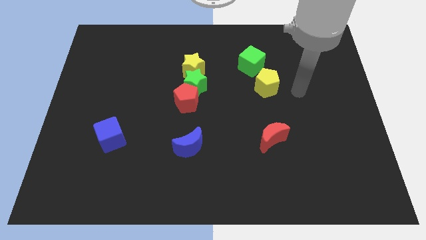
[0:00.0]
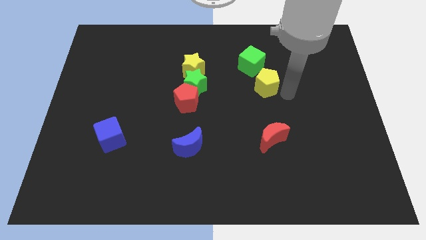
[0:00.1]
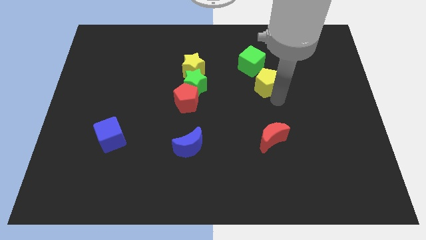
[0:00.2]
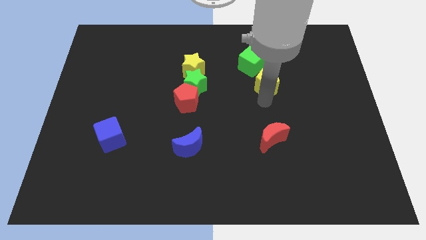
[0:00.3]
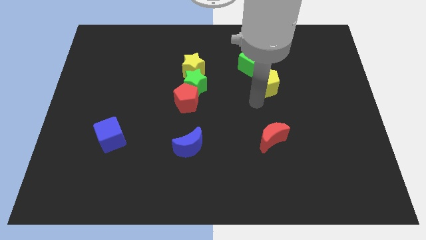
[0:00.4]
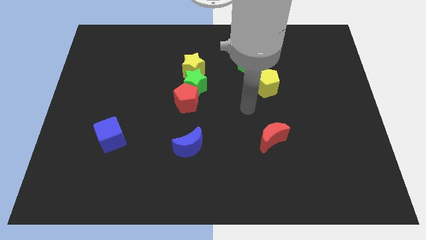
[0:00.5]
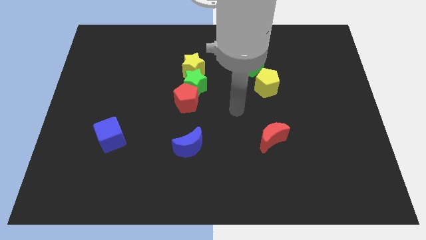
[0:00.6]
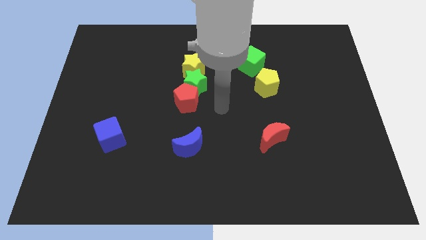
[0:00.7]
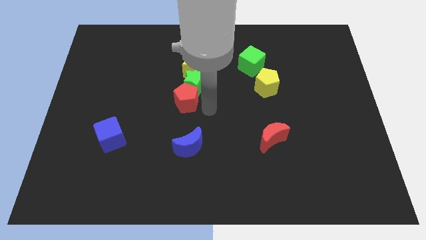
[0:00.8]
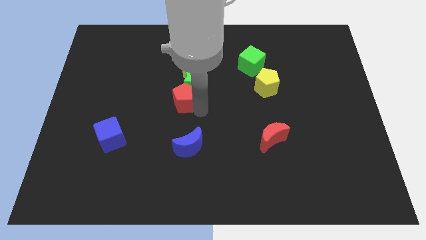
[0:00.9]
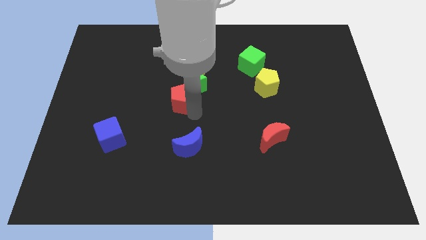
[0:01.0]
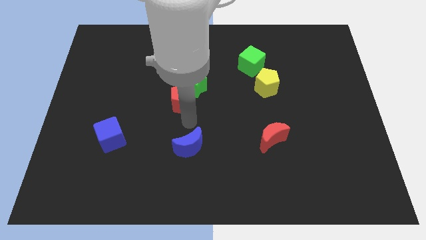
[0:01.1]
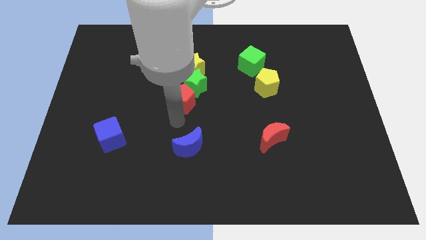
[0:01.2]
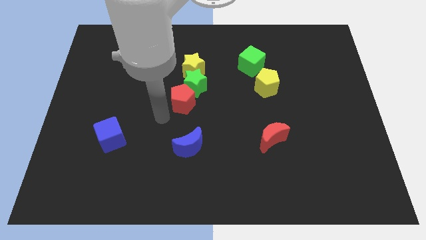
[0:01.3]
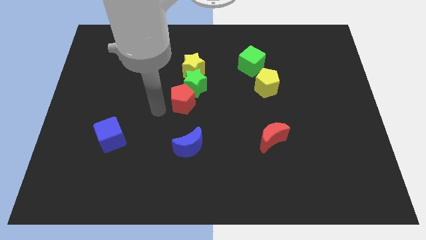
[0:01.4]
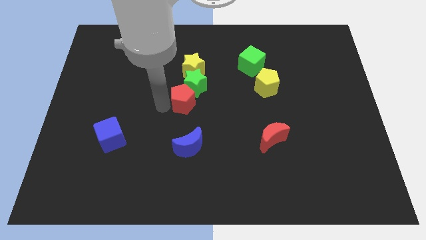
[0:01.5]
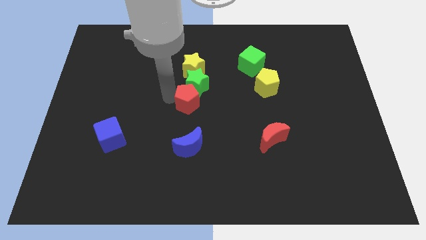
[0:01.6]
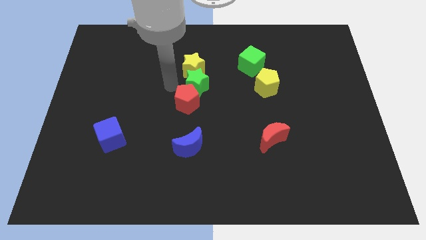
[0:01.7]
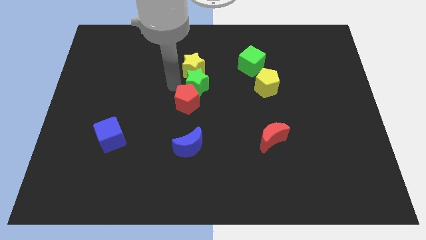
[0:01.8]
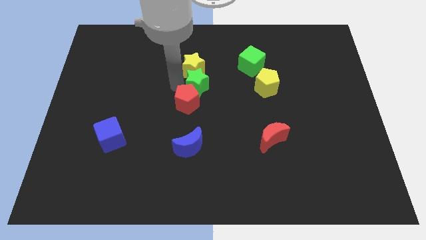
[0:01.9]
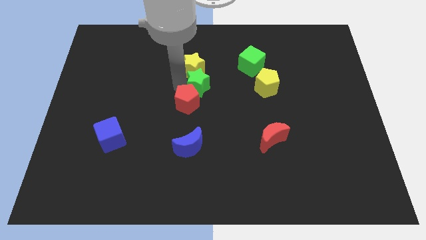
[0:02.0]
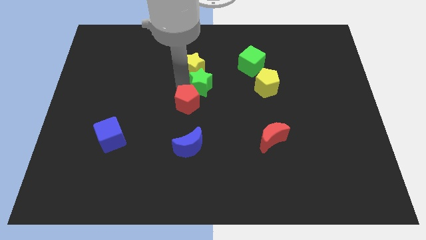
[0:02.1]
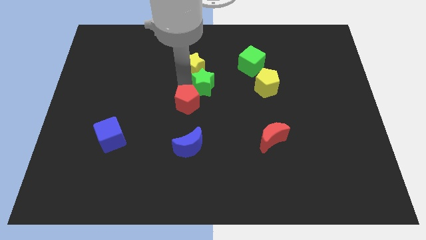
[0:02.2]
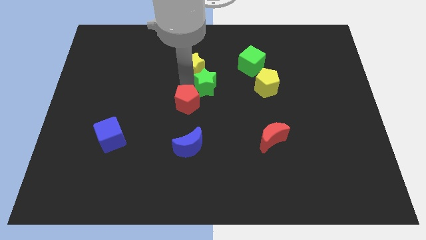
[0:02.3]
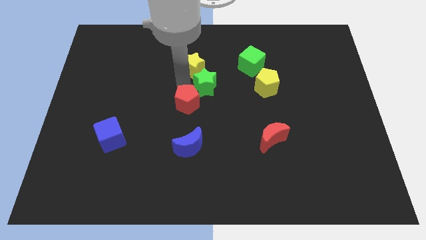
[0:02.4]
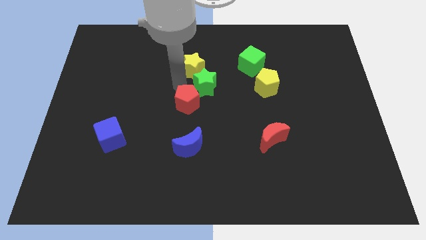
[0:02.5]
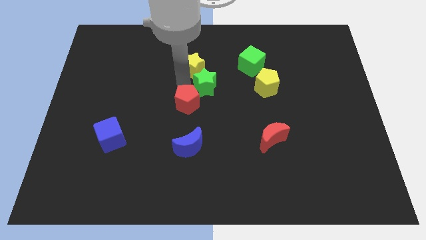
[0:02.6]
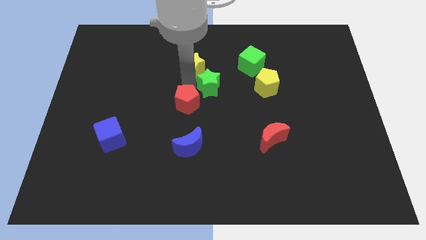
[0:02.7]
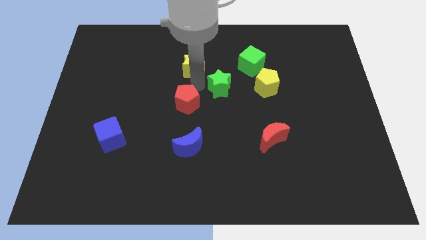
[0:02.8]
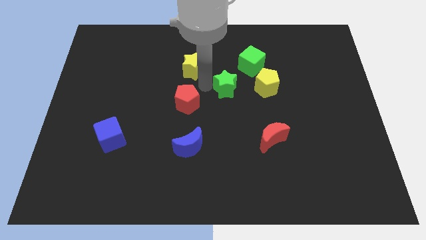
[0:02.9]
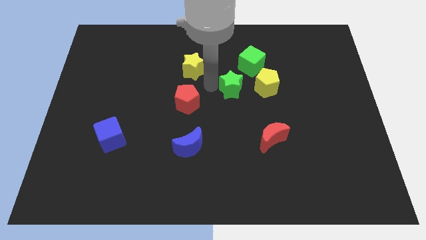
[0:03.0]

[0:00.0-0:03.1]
pull the green star apart from the yellow star and red pentagon

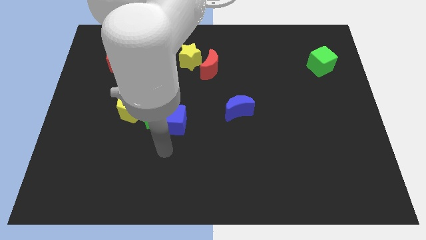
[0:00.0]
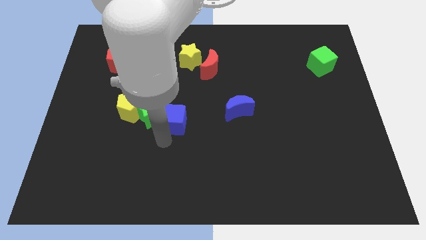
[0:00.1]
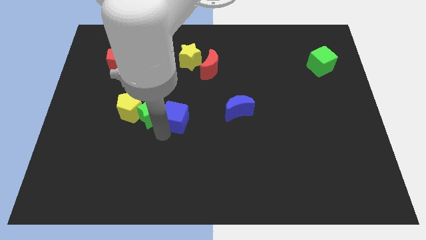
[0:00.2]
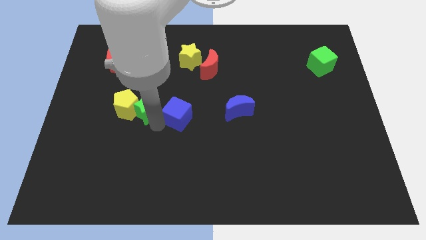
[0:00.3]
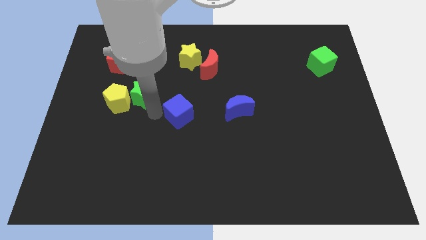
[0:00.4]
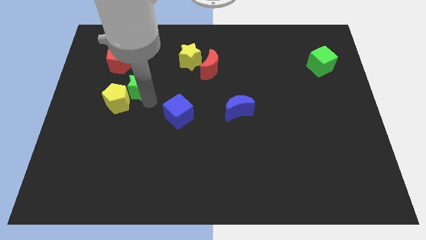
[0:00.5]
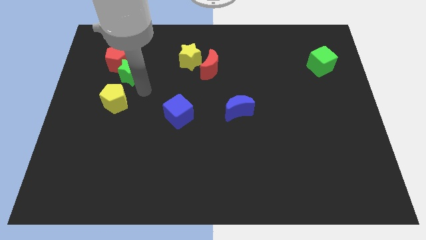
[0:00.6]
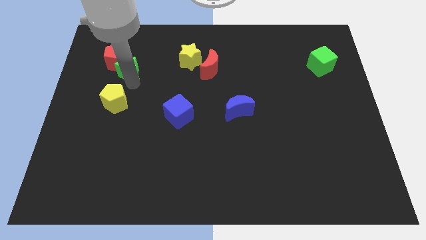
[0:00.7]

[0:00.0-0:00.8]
separate the yellow pentagon from the green star

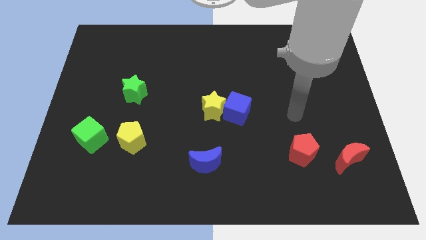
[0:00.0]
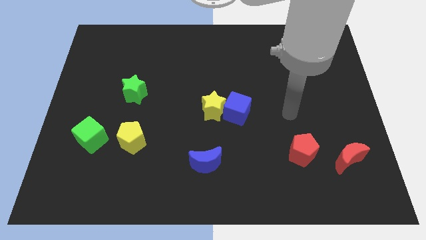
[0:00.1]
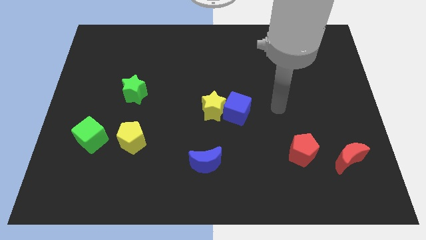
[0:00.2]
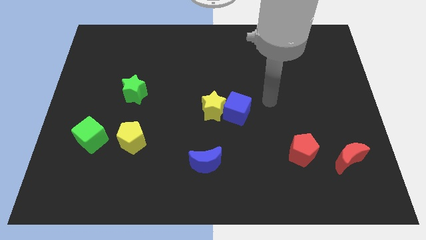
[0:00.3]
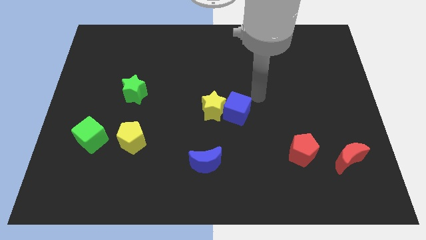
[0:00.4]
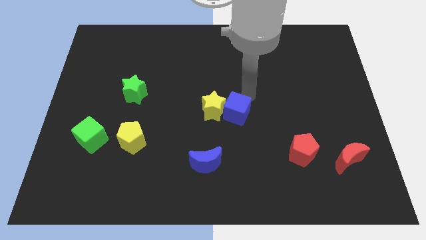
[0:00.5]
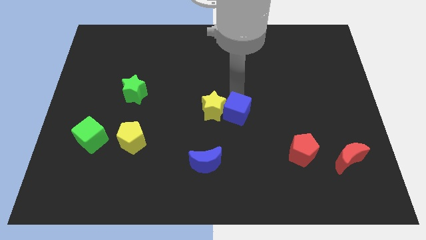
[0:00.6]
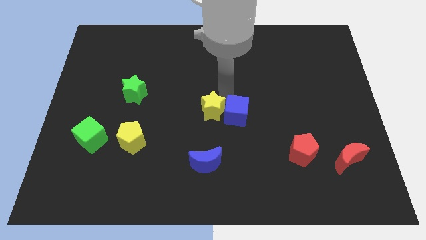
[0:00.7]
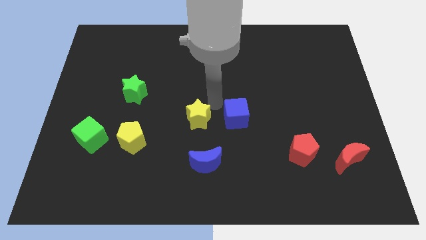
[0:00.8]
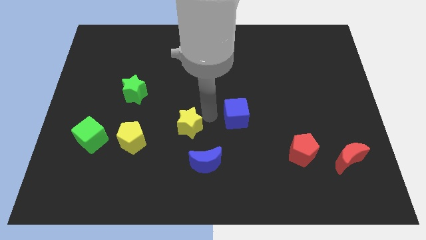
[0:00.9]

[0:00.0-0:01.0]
pull the blue cube apart from the yellow star

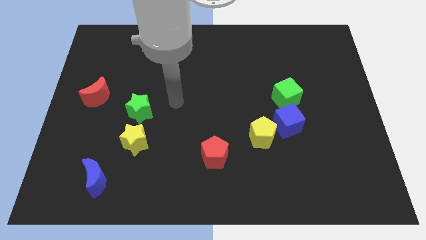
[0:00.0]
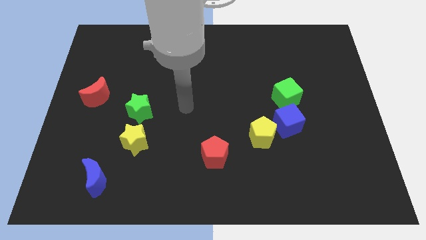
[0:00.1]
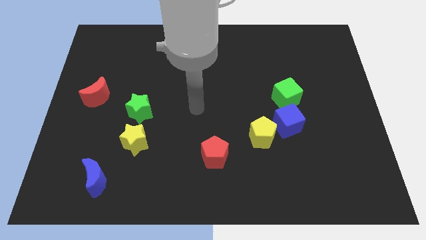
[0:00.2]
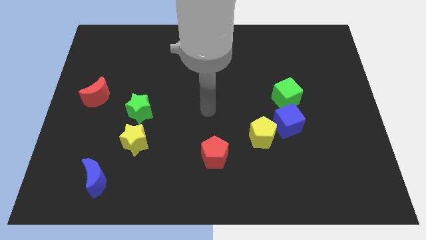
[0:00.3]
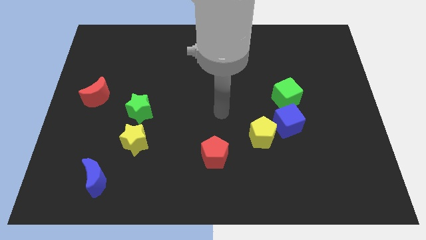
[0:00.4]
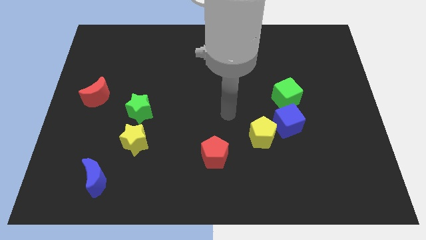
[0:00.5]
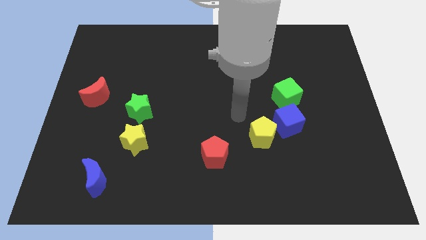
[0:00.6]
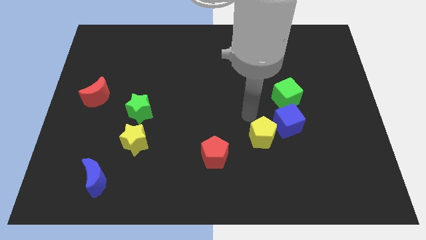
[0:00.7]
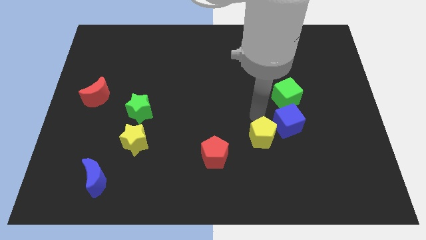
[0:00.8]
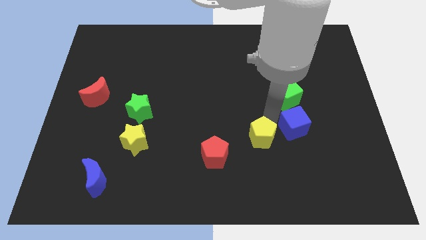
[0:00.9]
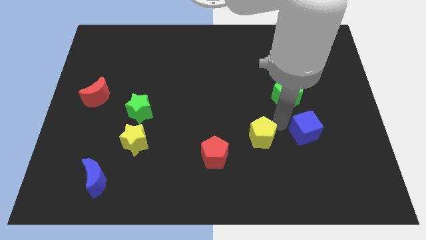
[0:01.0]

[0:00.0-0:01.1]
separate the yellow pentagon from the blue cube

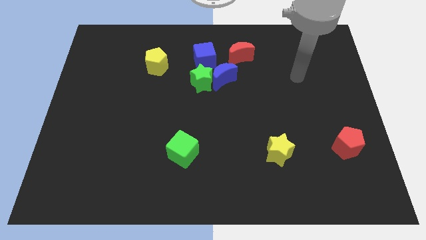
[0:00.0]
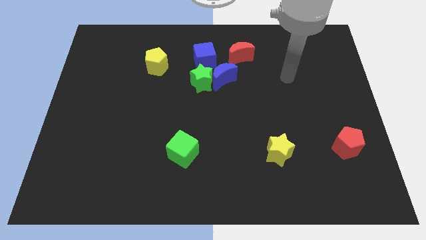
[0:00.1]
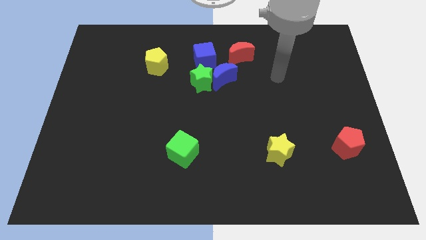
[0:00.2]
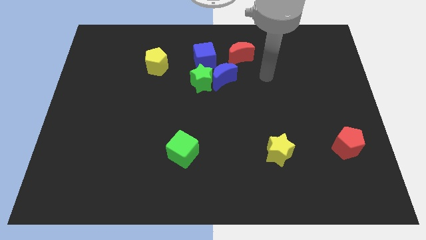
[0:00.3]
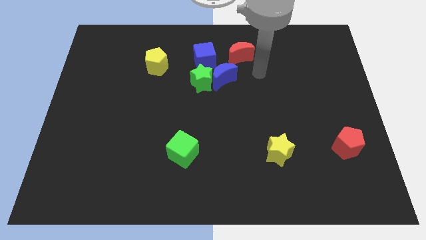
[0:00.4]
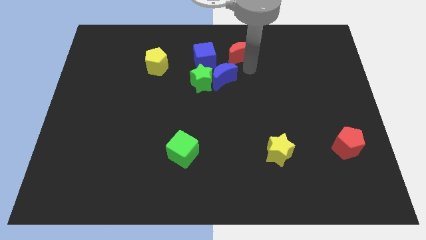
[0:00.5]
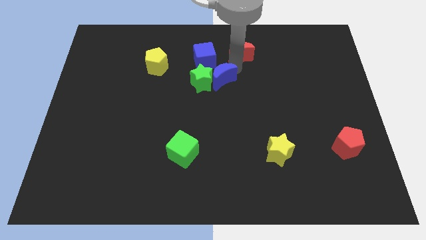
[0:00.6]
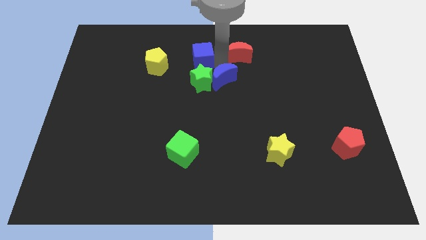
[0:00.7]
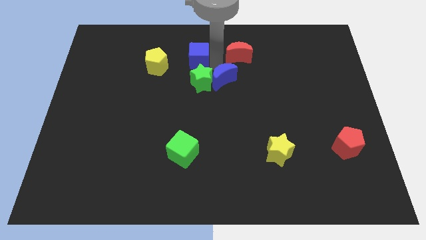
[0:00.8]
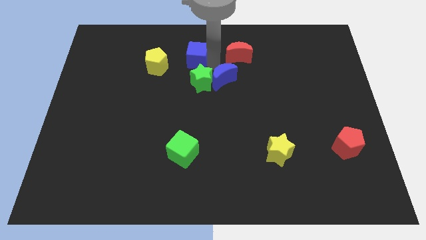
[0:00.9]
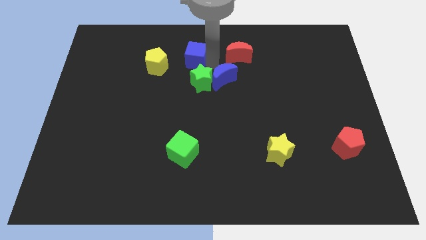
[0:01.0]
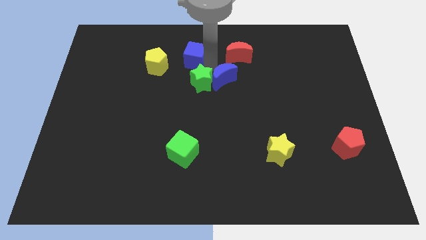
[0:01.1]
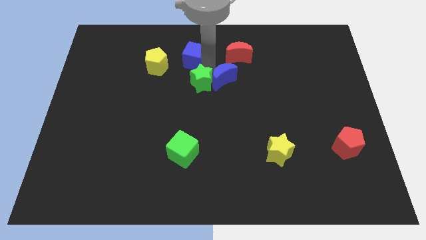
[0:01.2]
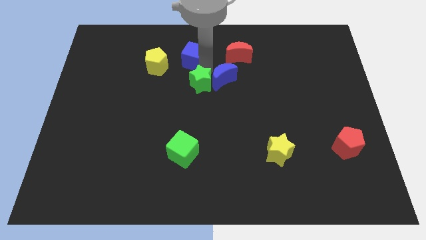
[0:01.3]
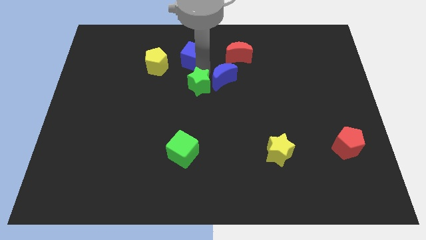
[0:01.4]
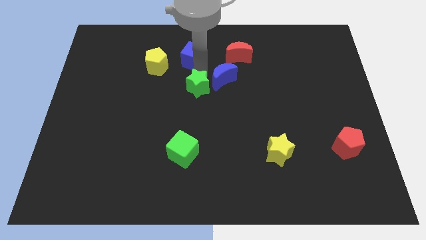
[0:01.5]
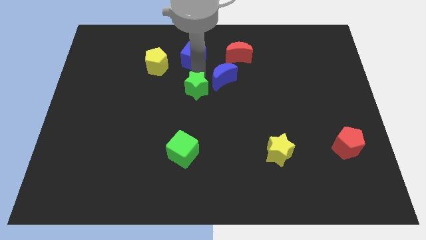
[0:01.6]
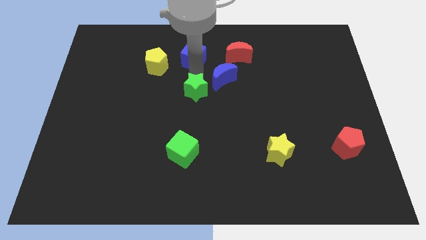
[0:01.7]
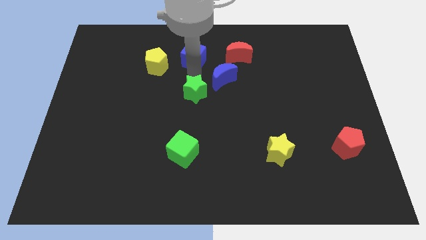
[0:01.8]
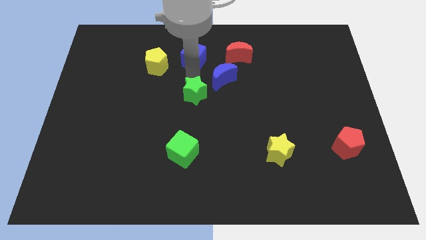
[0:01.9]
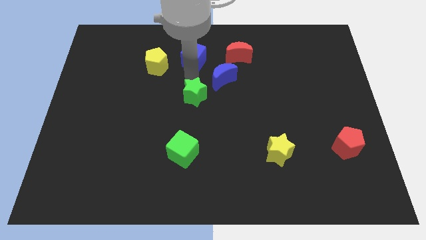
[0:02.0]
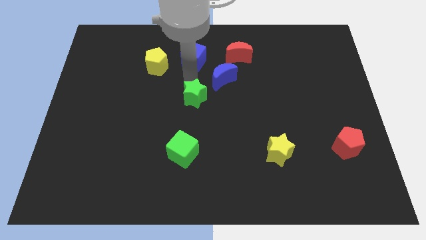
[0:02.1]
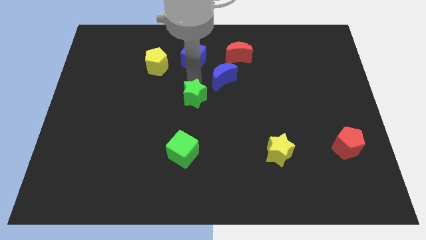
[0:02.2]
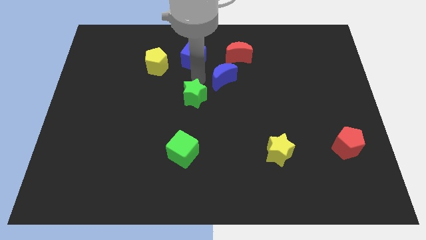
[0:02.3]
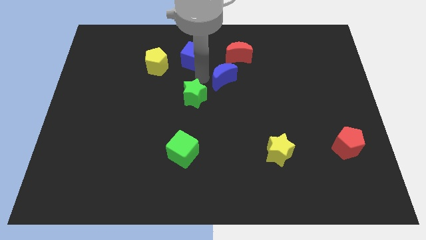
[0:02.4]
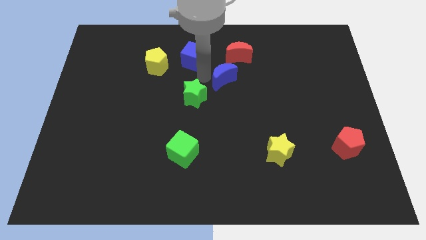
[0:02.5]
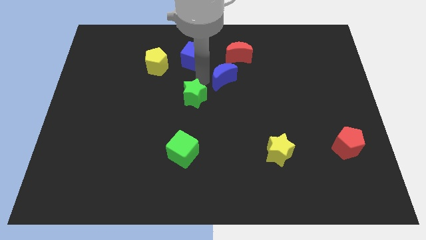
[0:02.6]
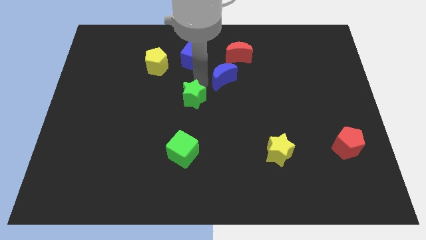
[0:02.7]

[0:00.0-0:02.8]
pull the green star apart from the blue moon and blue cube

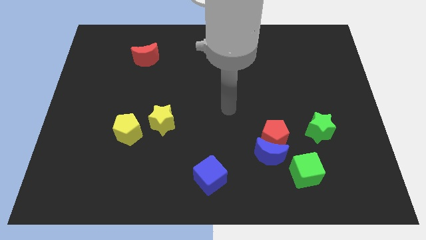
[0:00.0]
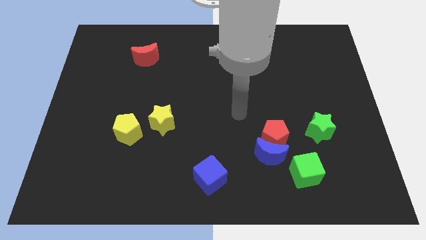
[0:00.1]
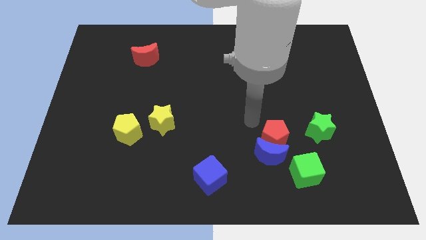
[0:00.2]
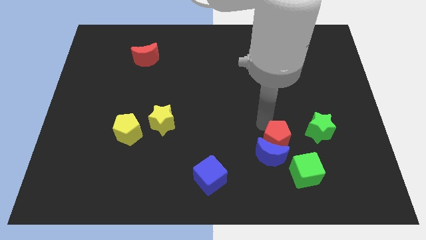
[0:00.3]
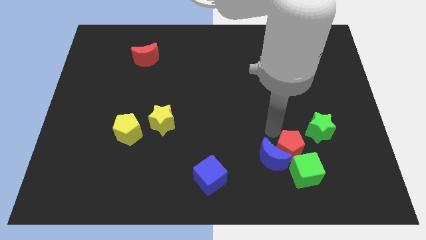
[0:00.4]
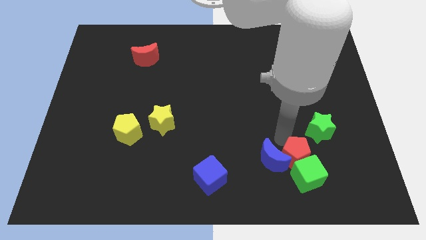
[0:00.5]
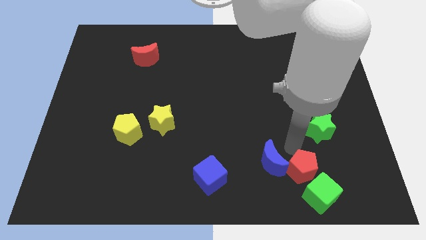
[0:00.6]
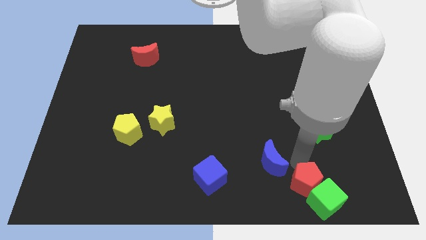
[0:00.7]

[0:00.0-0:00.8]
pull the blue moon apart from the red pentagon and green cube
